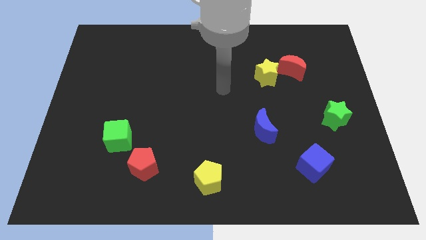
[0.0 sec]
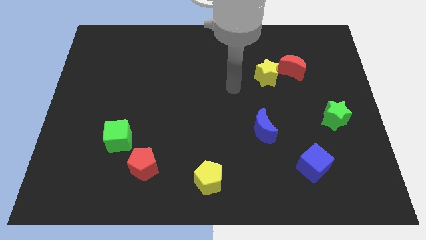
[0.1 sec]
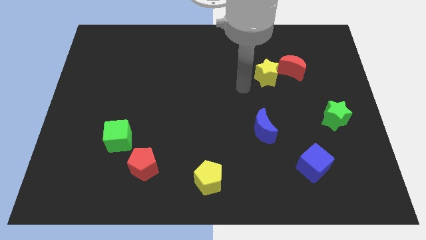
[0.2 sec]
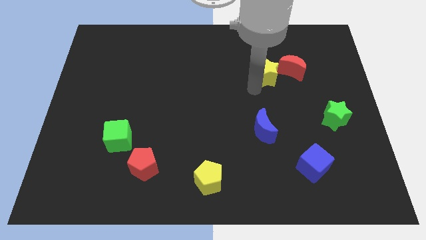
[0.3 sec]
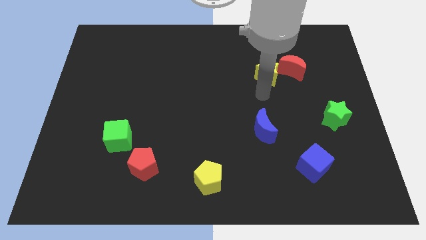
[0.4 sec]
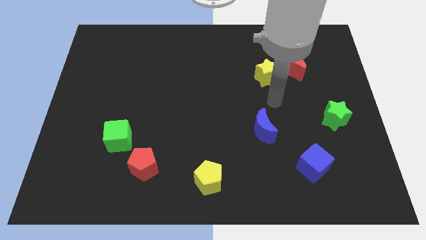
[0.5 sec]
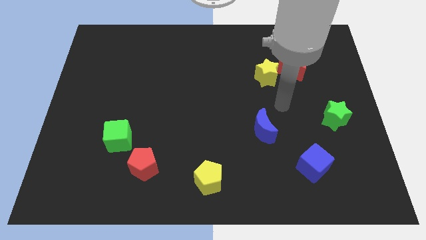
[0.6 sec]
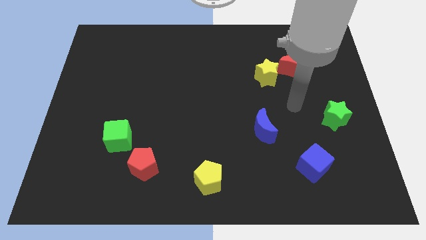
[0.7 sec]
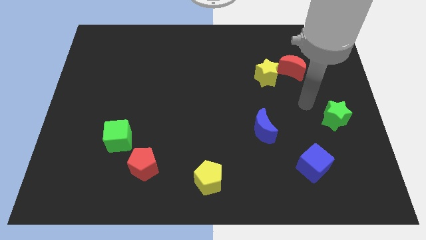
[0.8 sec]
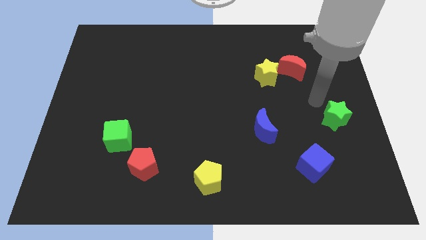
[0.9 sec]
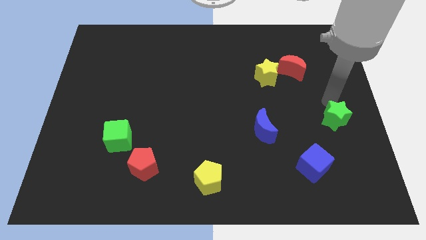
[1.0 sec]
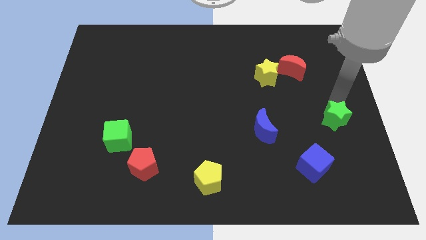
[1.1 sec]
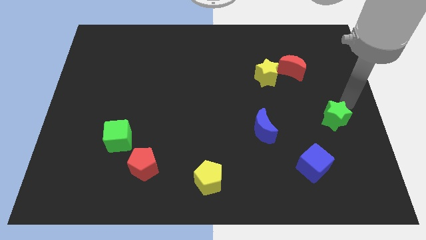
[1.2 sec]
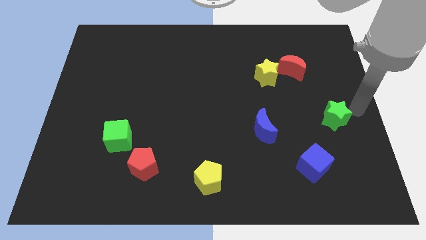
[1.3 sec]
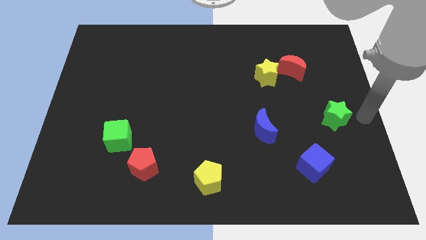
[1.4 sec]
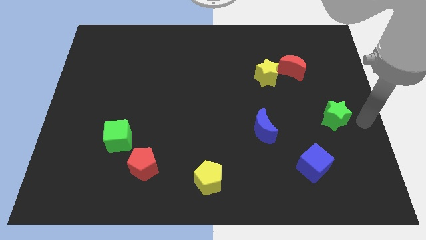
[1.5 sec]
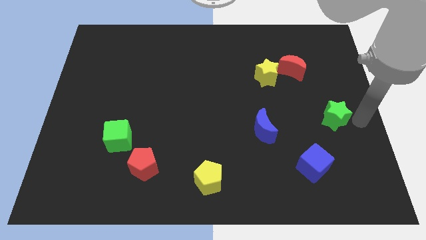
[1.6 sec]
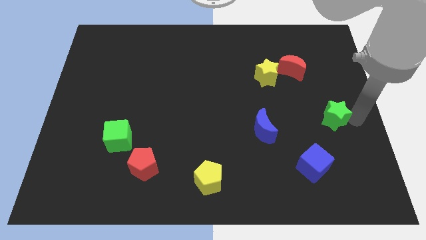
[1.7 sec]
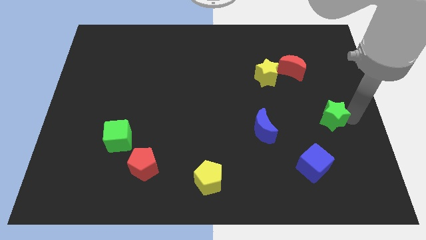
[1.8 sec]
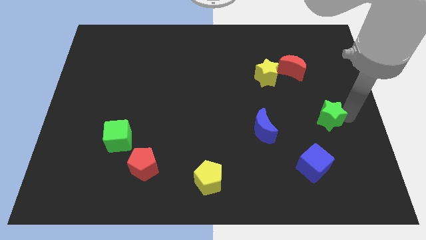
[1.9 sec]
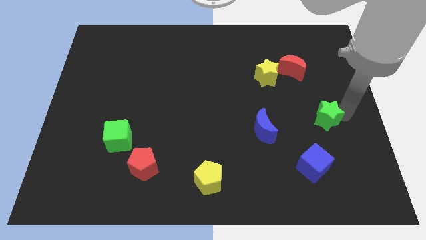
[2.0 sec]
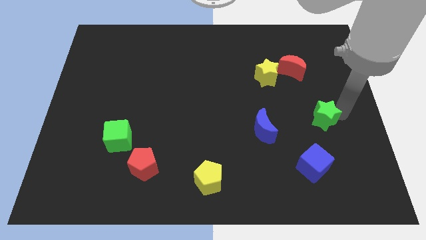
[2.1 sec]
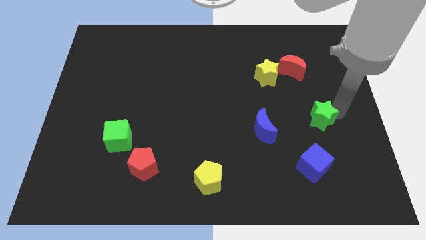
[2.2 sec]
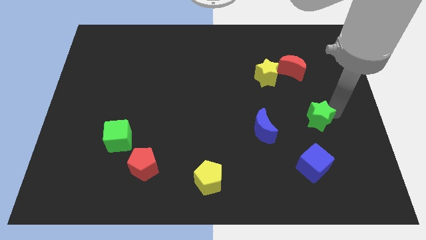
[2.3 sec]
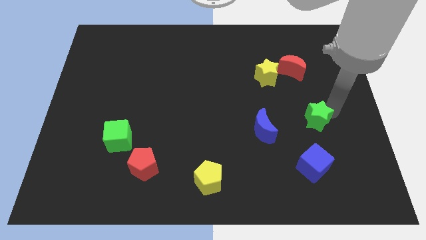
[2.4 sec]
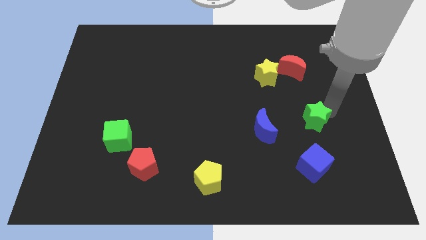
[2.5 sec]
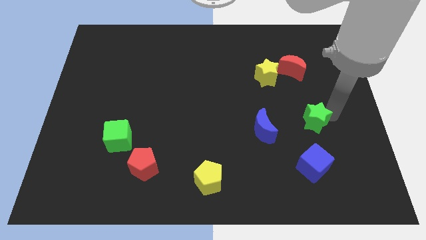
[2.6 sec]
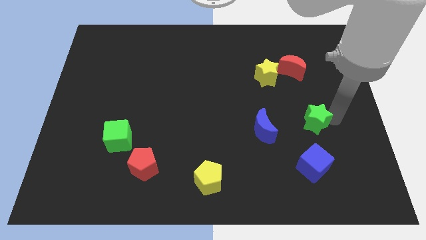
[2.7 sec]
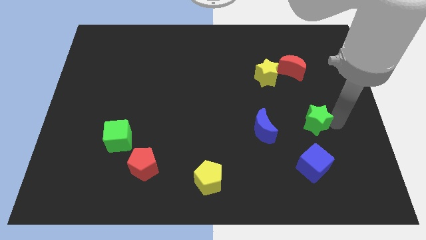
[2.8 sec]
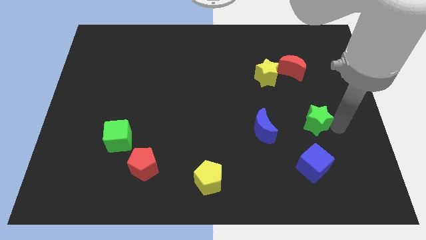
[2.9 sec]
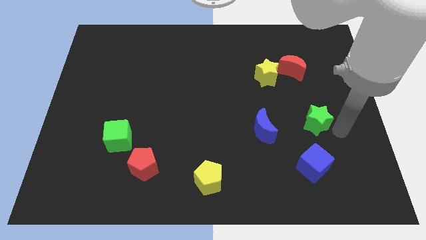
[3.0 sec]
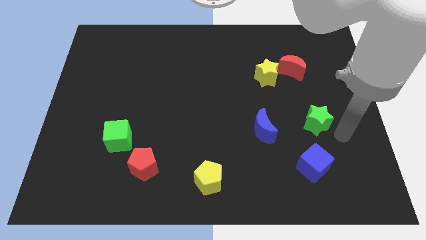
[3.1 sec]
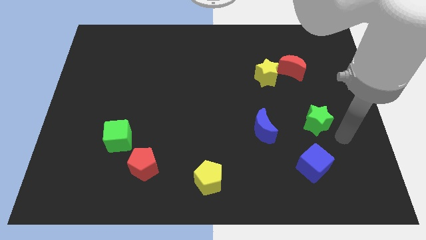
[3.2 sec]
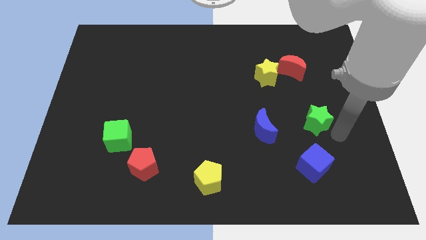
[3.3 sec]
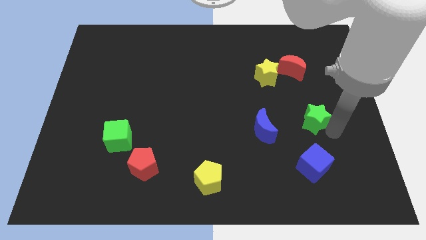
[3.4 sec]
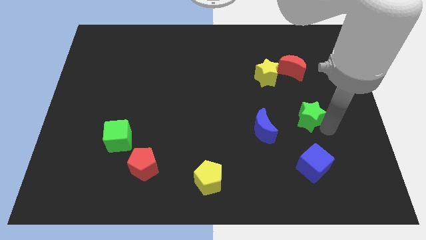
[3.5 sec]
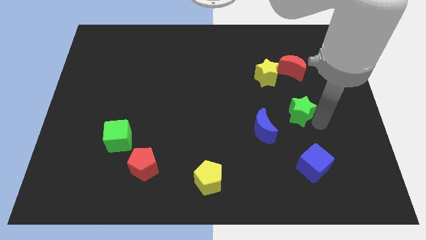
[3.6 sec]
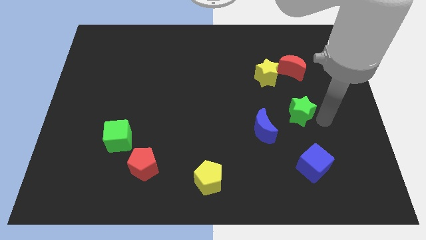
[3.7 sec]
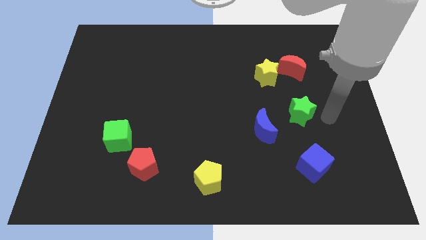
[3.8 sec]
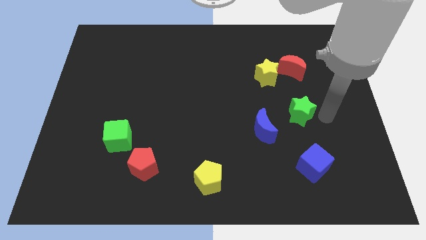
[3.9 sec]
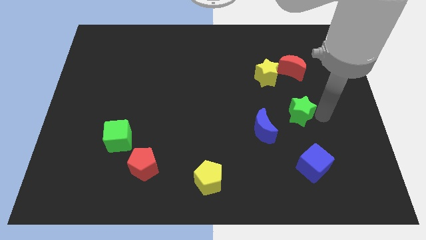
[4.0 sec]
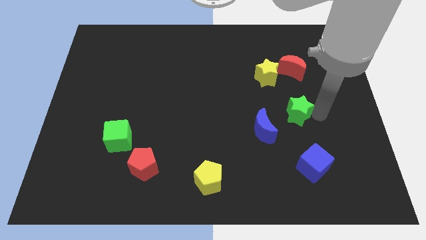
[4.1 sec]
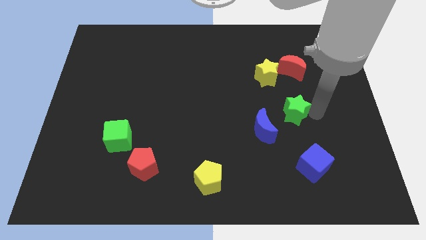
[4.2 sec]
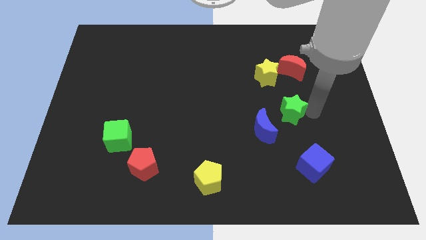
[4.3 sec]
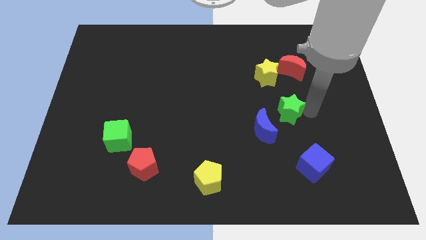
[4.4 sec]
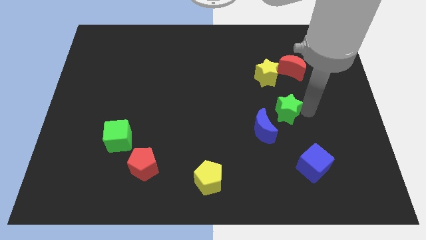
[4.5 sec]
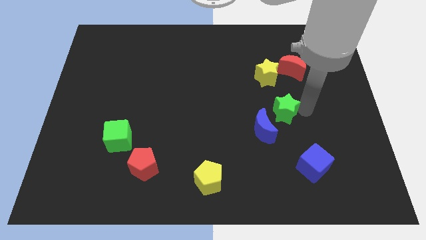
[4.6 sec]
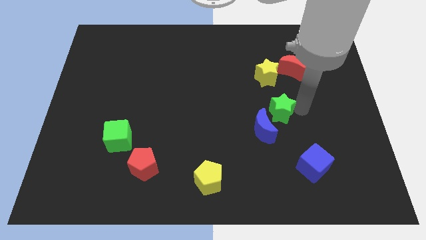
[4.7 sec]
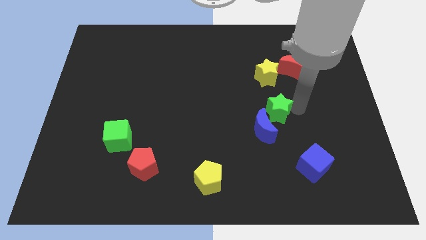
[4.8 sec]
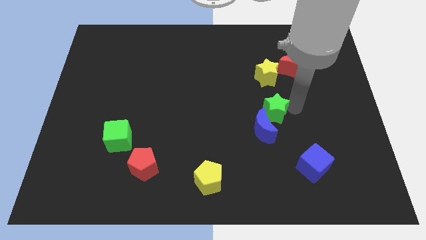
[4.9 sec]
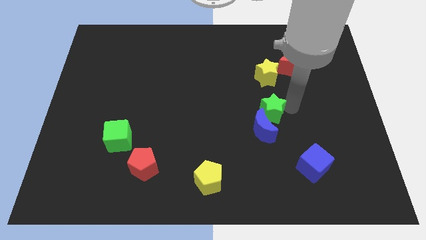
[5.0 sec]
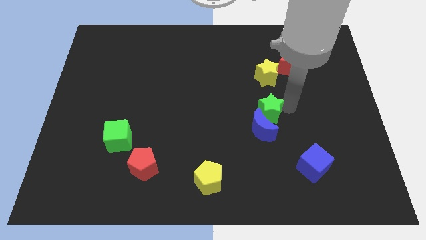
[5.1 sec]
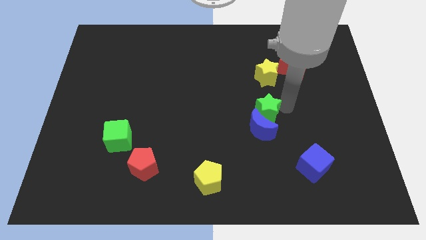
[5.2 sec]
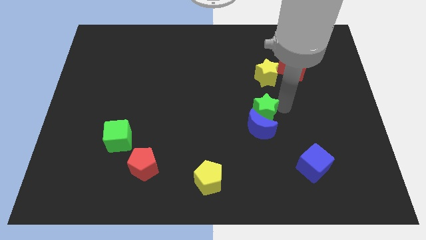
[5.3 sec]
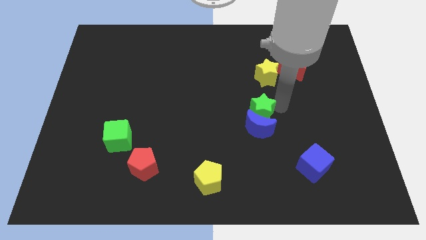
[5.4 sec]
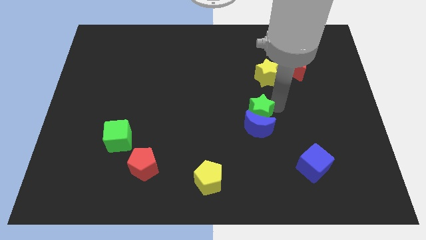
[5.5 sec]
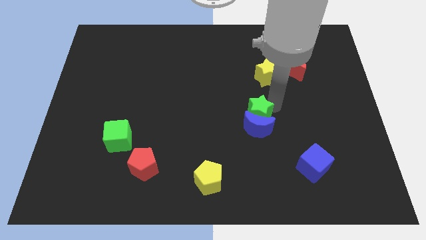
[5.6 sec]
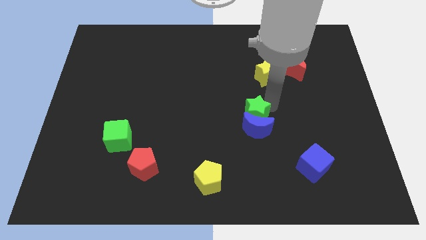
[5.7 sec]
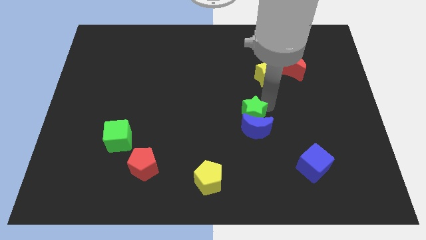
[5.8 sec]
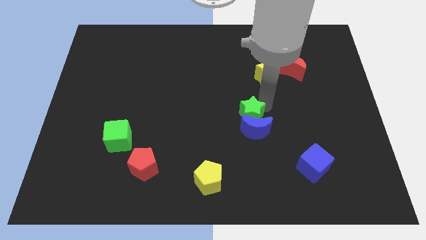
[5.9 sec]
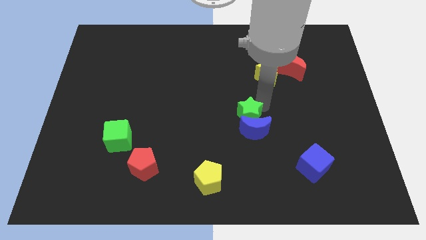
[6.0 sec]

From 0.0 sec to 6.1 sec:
push the green star to the left

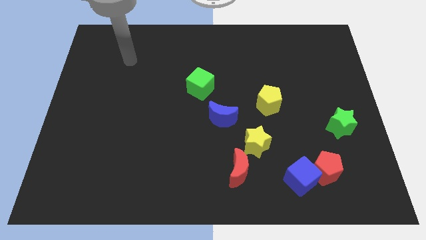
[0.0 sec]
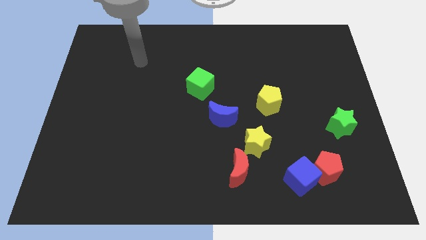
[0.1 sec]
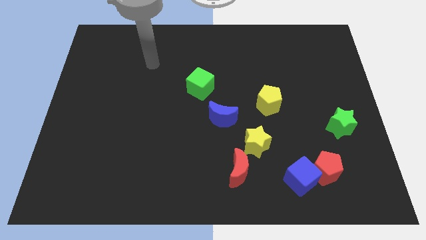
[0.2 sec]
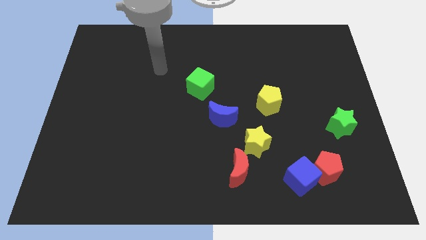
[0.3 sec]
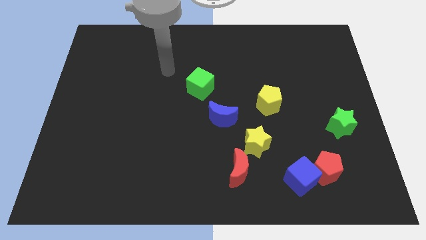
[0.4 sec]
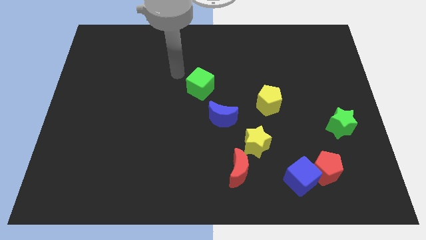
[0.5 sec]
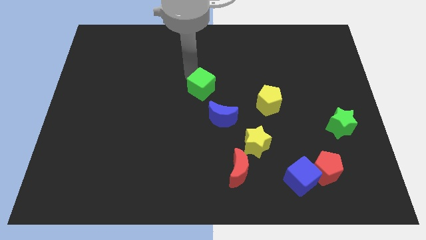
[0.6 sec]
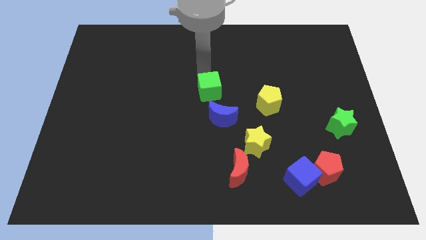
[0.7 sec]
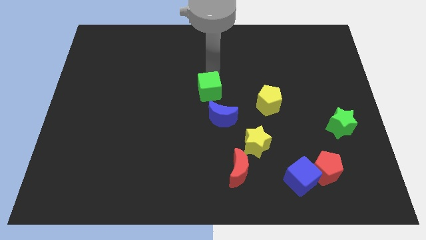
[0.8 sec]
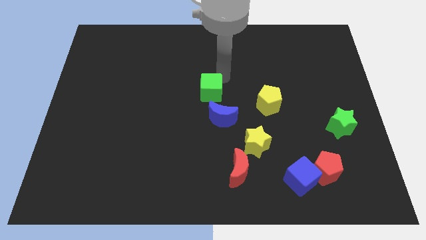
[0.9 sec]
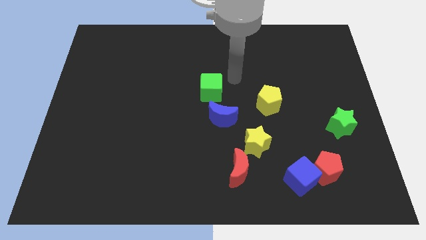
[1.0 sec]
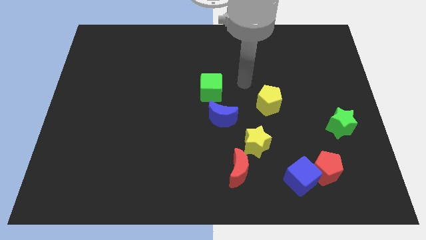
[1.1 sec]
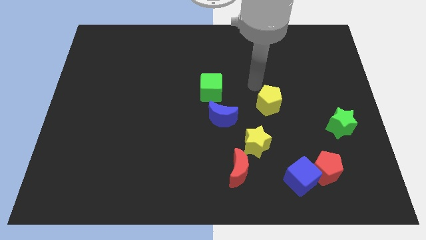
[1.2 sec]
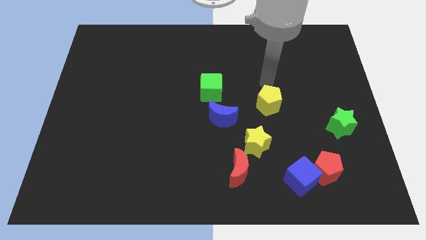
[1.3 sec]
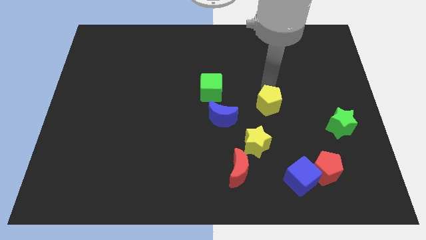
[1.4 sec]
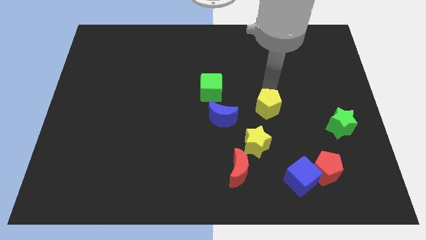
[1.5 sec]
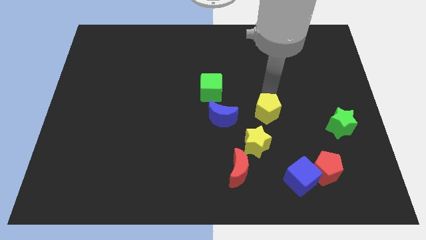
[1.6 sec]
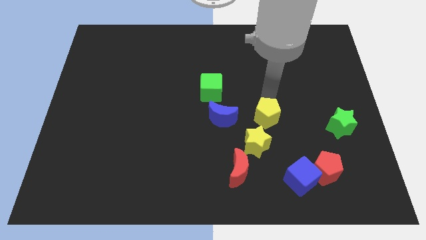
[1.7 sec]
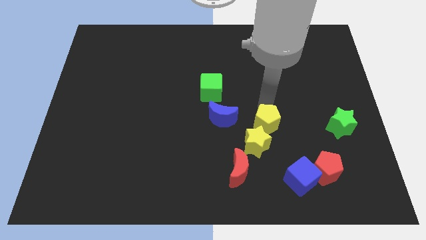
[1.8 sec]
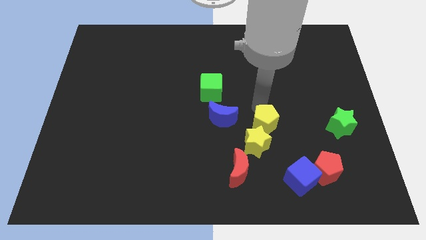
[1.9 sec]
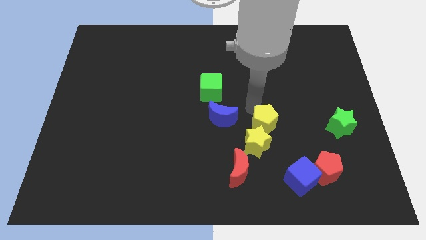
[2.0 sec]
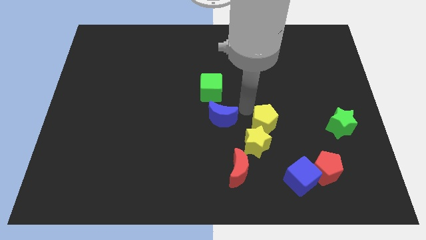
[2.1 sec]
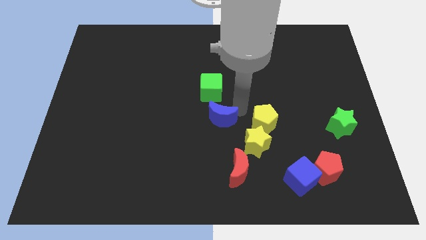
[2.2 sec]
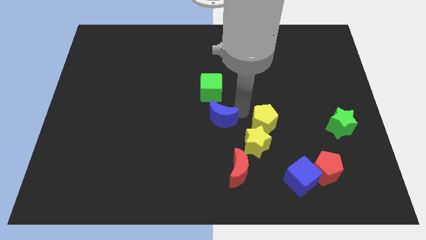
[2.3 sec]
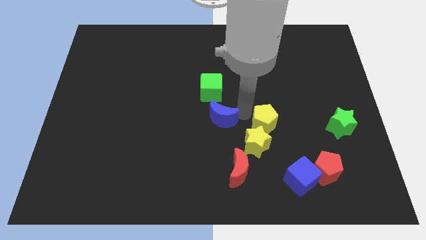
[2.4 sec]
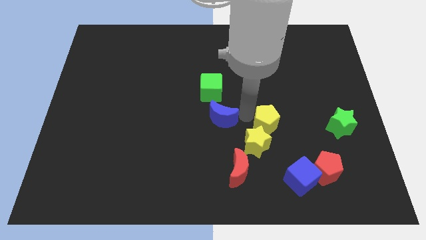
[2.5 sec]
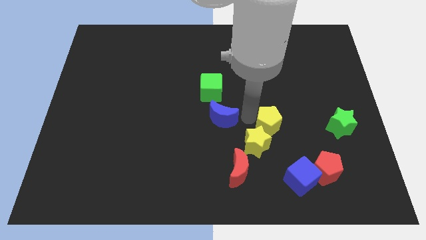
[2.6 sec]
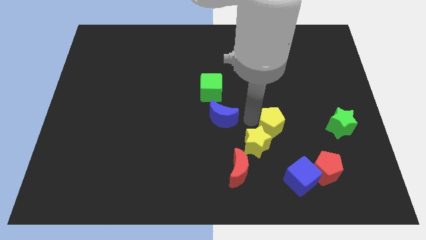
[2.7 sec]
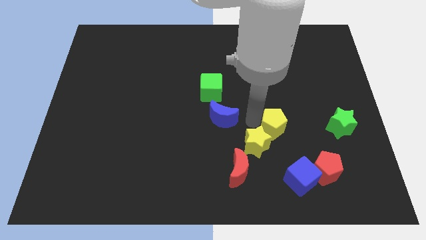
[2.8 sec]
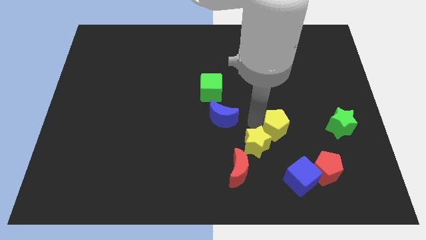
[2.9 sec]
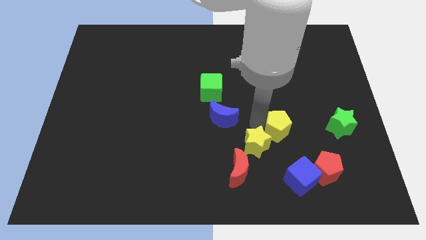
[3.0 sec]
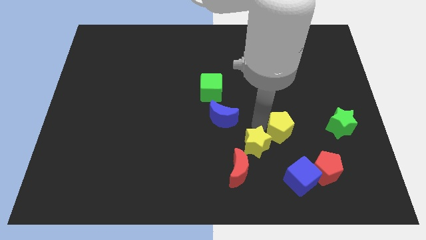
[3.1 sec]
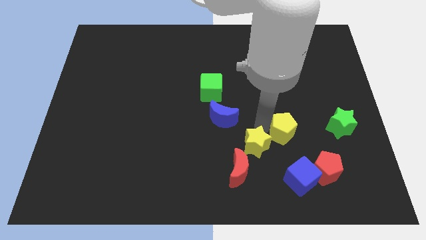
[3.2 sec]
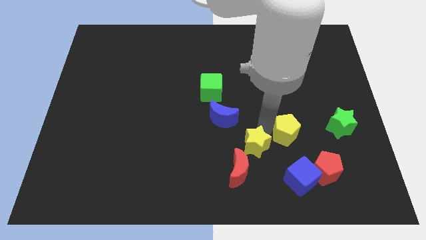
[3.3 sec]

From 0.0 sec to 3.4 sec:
move the yellow pentagon slightly diagonally downwards and right
